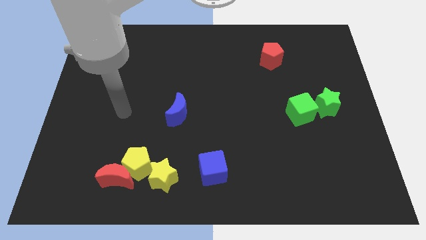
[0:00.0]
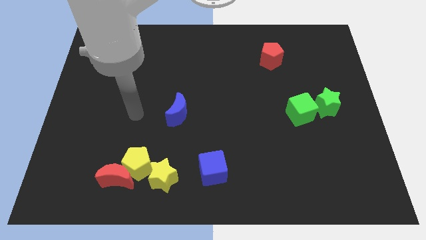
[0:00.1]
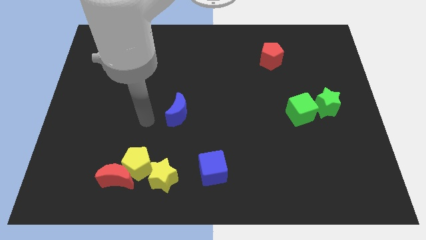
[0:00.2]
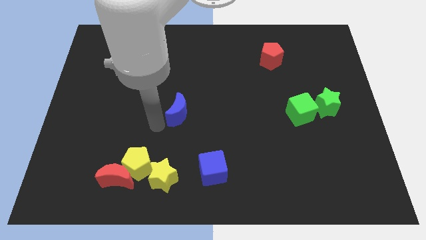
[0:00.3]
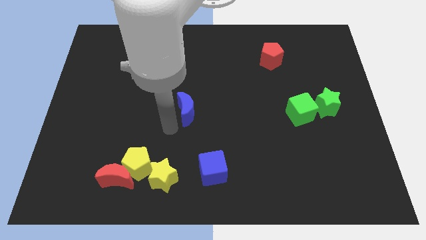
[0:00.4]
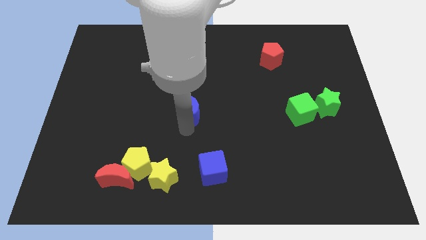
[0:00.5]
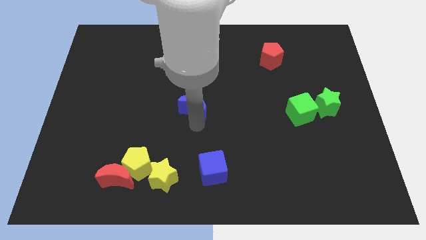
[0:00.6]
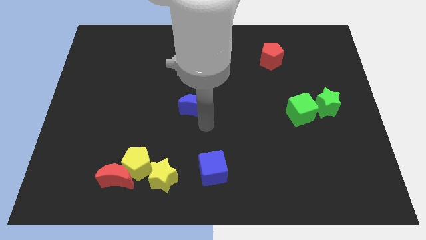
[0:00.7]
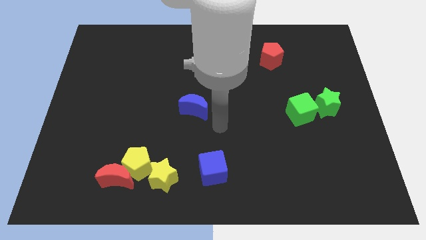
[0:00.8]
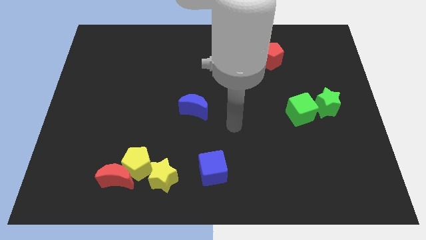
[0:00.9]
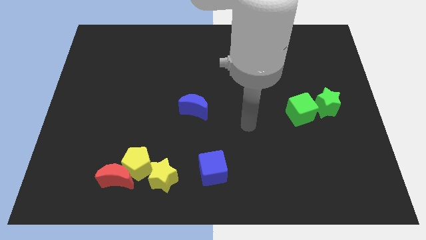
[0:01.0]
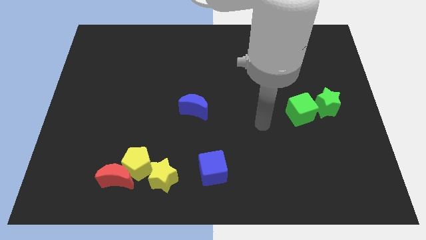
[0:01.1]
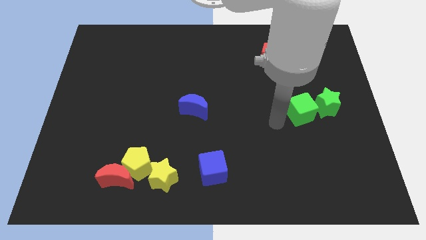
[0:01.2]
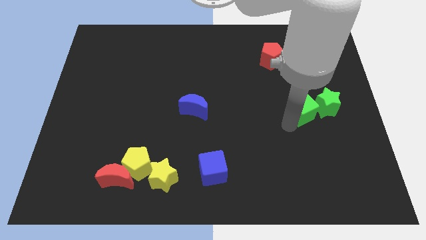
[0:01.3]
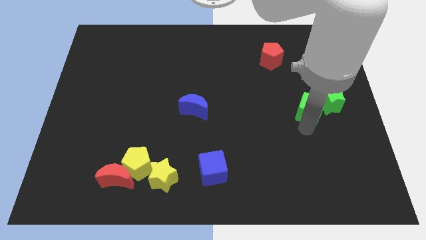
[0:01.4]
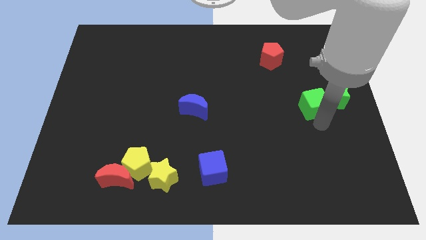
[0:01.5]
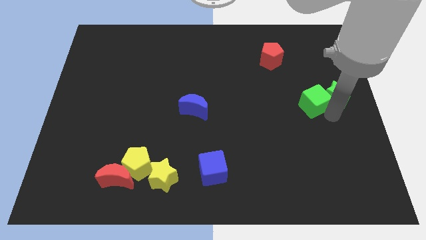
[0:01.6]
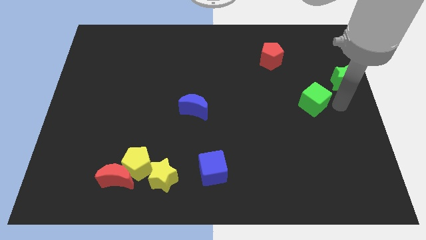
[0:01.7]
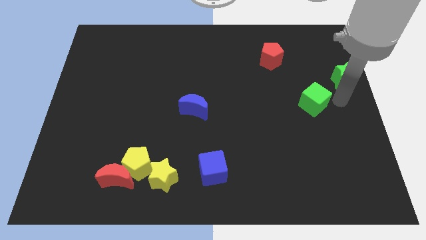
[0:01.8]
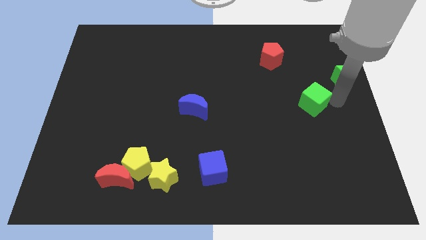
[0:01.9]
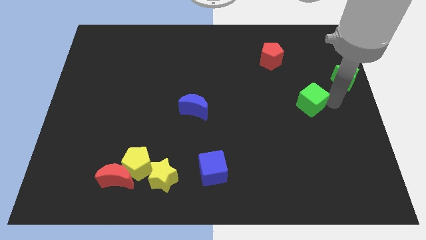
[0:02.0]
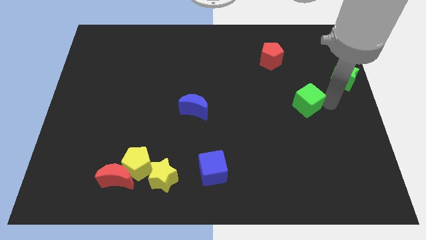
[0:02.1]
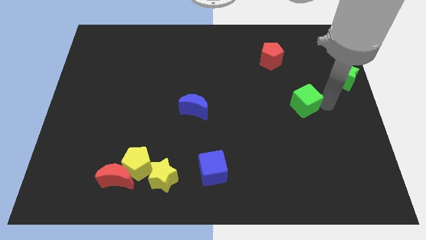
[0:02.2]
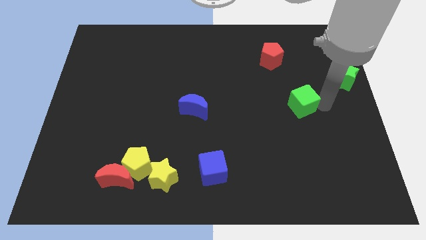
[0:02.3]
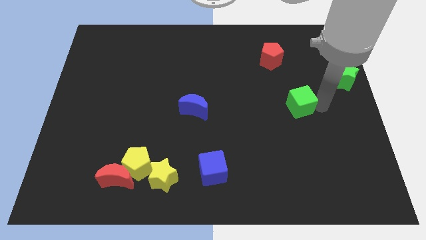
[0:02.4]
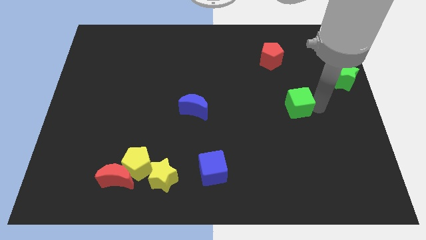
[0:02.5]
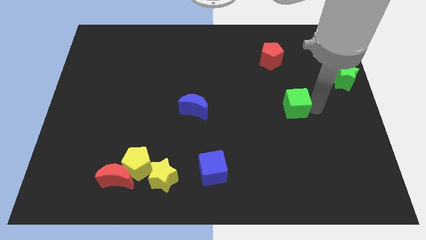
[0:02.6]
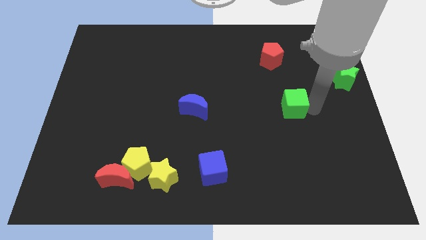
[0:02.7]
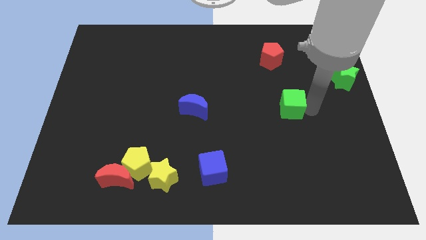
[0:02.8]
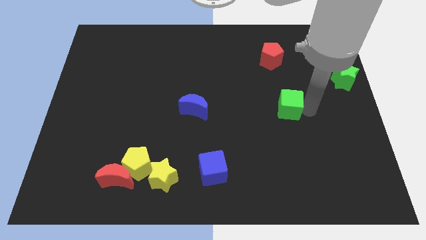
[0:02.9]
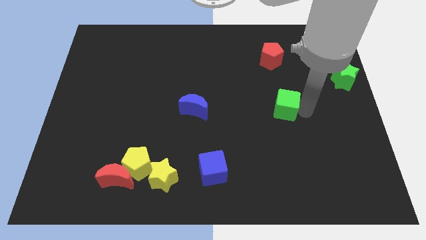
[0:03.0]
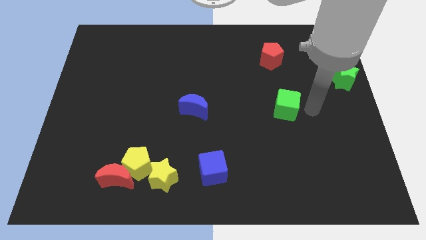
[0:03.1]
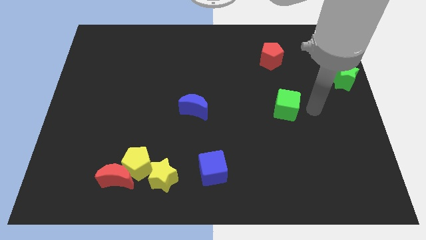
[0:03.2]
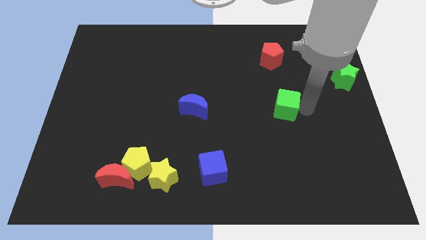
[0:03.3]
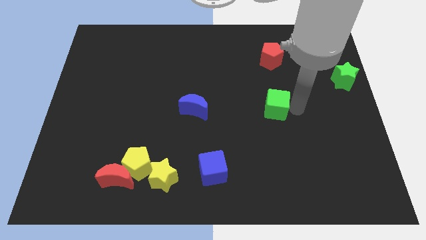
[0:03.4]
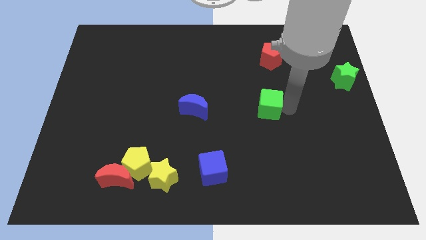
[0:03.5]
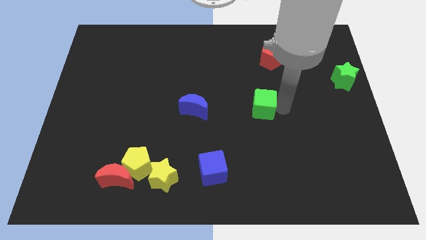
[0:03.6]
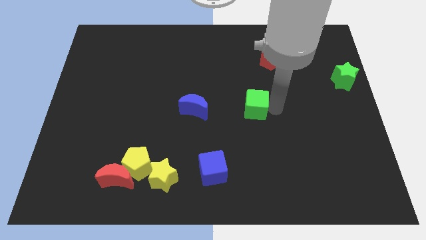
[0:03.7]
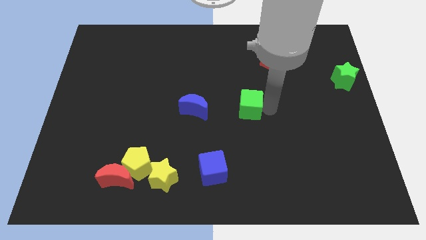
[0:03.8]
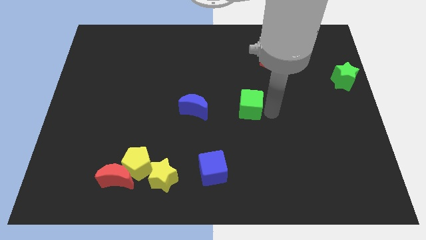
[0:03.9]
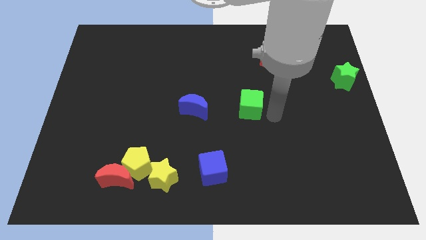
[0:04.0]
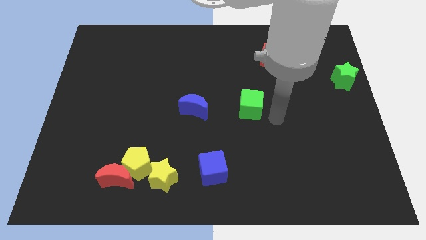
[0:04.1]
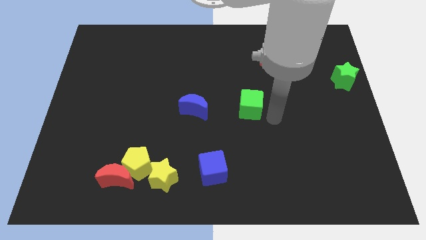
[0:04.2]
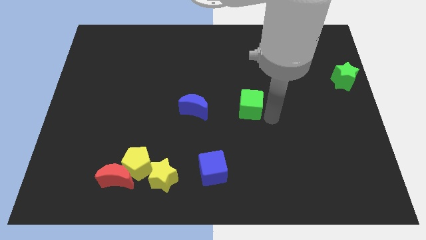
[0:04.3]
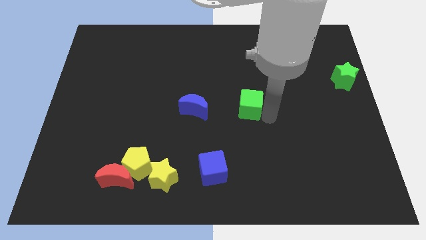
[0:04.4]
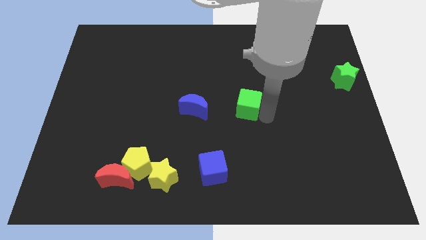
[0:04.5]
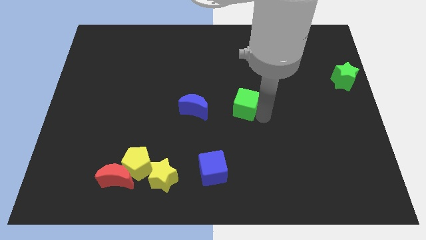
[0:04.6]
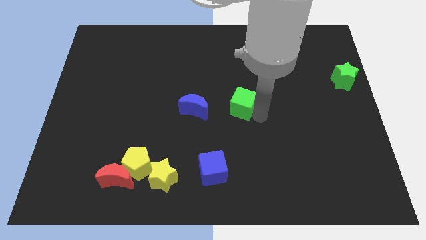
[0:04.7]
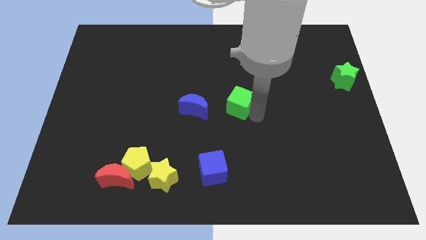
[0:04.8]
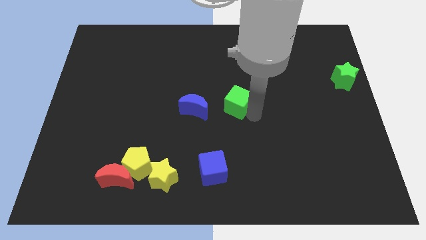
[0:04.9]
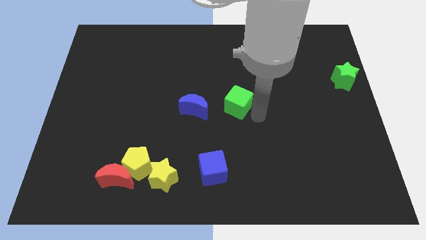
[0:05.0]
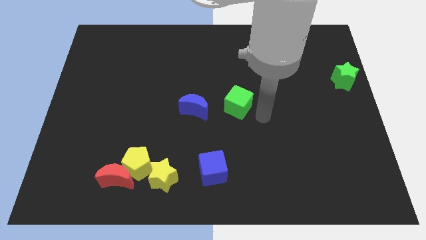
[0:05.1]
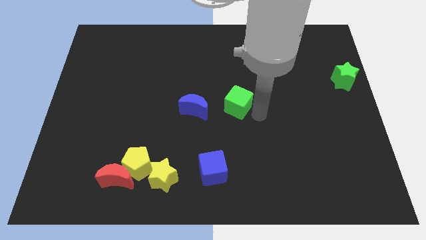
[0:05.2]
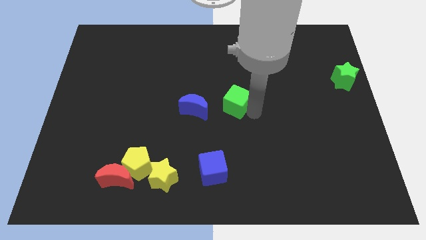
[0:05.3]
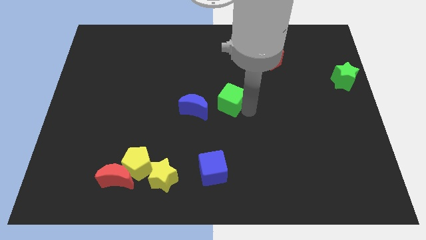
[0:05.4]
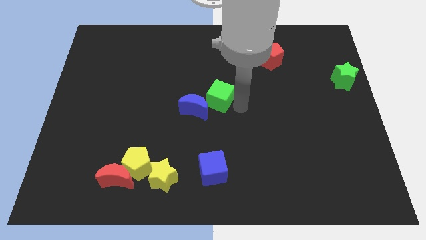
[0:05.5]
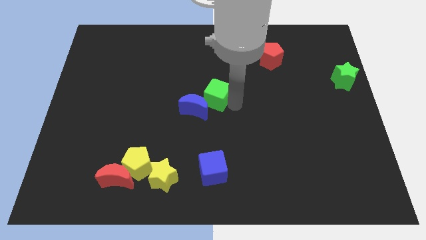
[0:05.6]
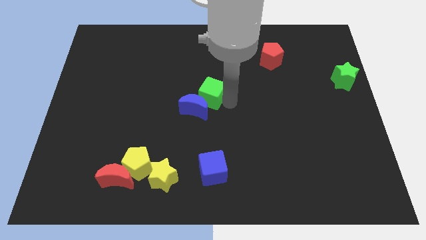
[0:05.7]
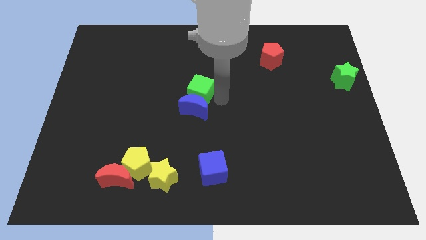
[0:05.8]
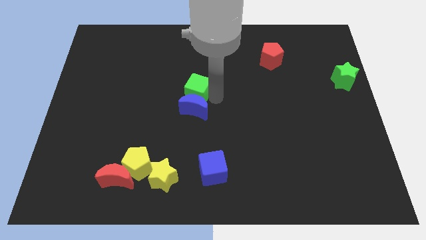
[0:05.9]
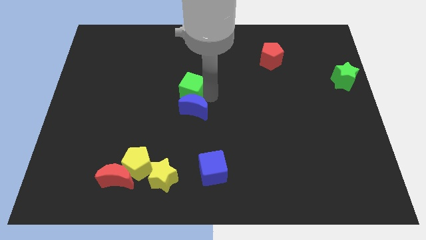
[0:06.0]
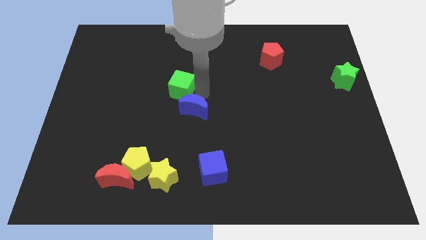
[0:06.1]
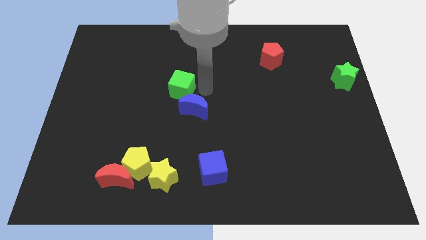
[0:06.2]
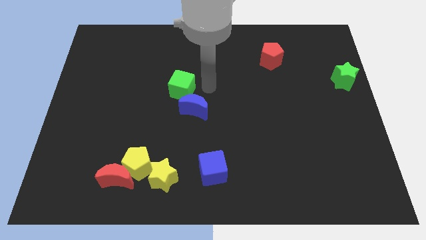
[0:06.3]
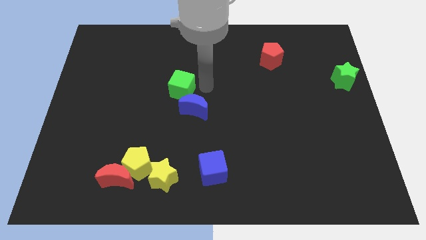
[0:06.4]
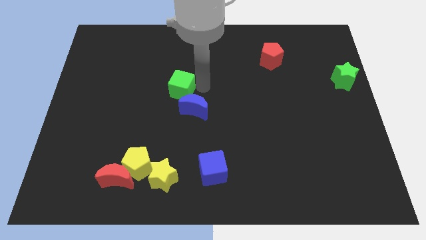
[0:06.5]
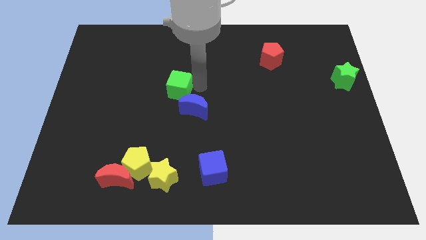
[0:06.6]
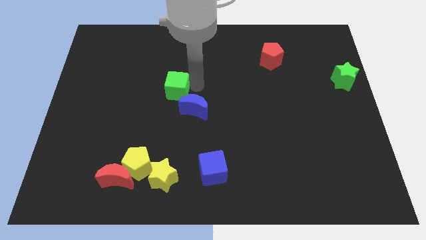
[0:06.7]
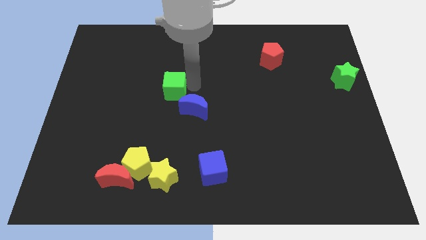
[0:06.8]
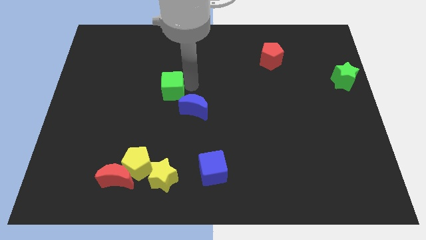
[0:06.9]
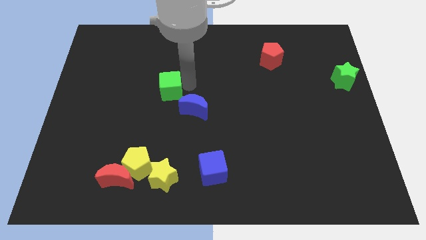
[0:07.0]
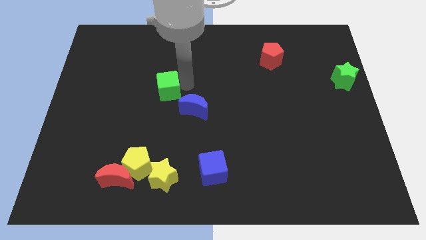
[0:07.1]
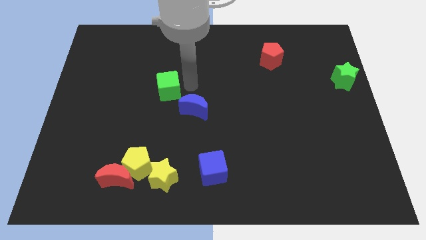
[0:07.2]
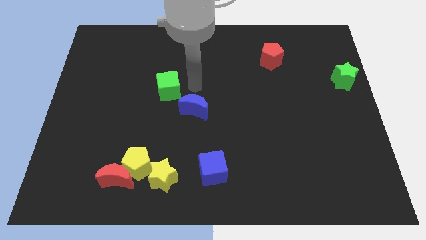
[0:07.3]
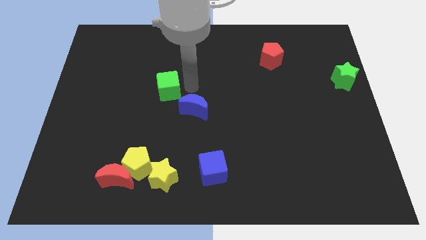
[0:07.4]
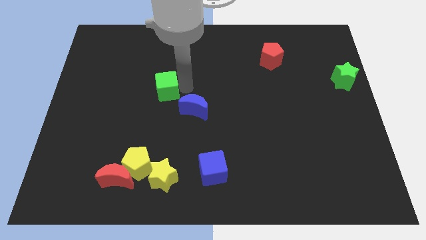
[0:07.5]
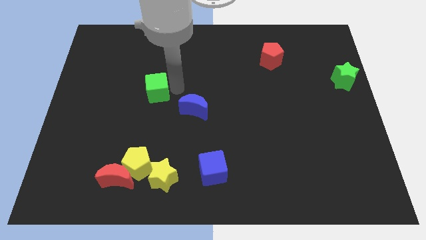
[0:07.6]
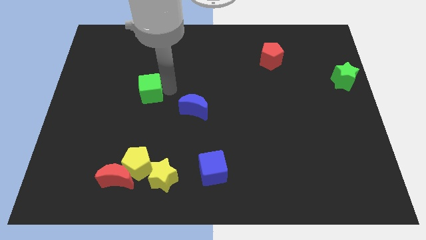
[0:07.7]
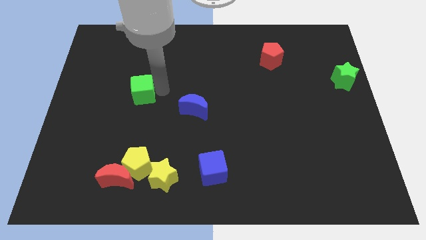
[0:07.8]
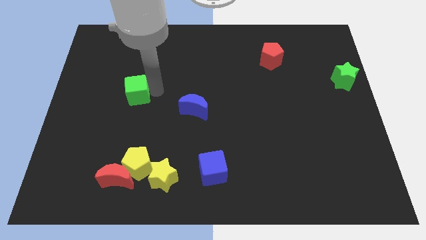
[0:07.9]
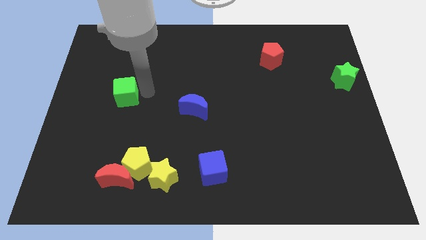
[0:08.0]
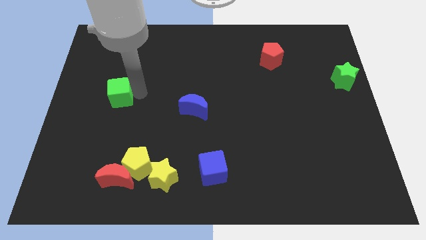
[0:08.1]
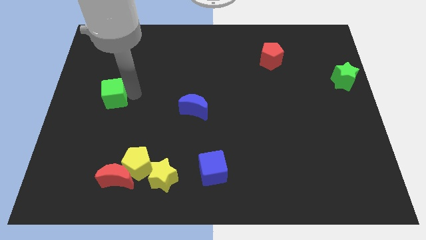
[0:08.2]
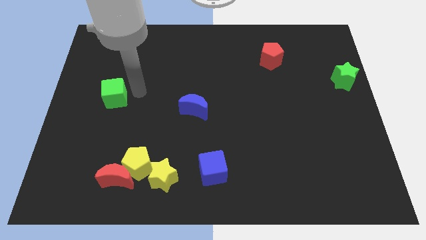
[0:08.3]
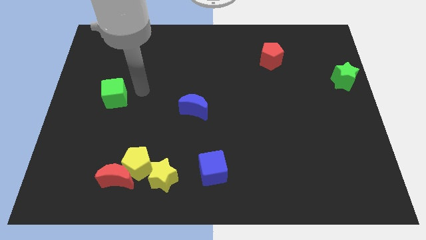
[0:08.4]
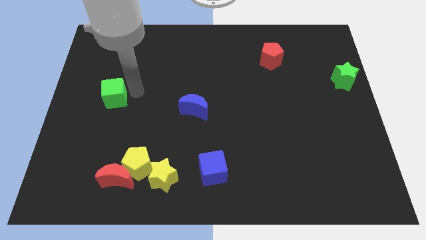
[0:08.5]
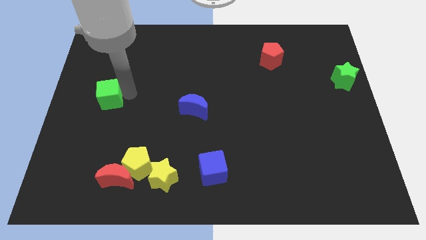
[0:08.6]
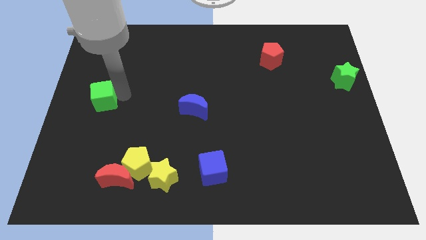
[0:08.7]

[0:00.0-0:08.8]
slide the green cube to the left side
